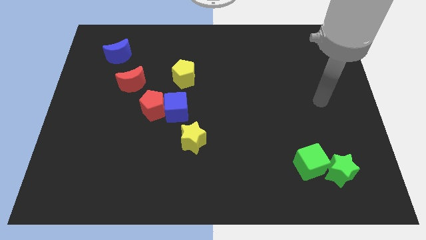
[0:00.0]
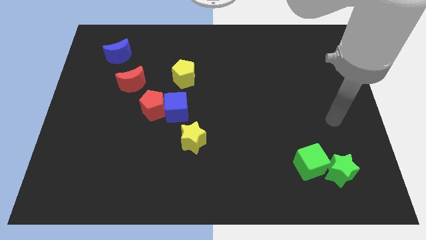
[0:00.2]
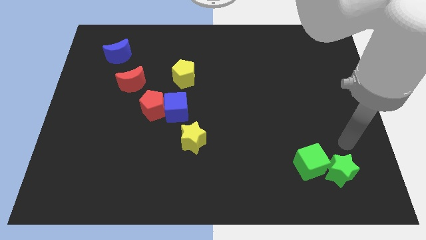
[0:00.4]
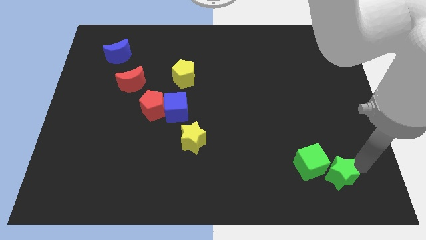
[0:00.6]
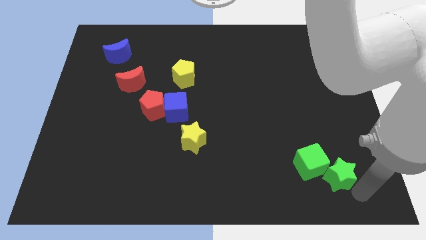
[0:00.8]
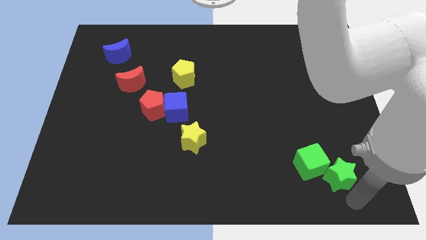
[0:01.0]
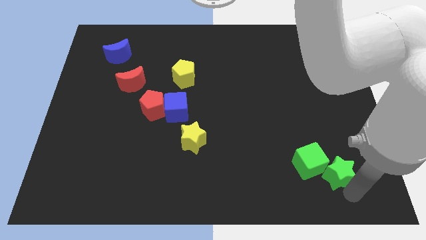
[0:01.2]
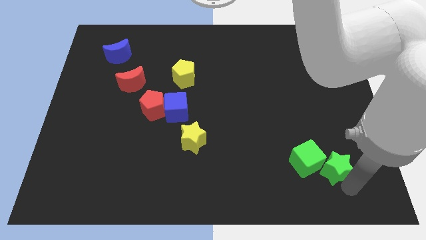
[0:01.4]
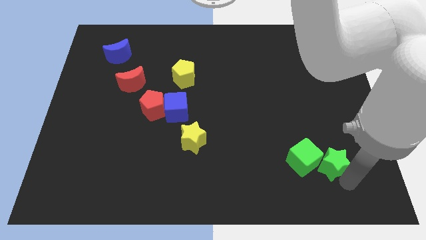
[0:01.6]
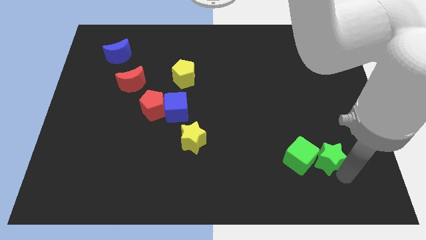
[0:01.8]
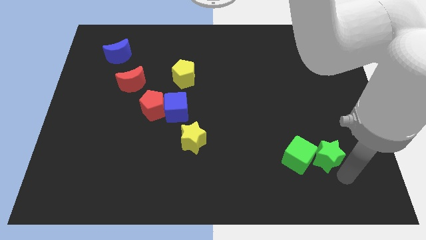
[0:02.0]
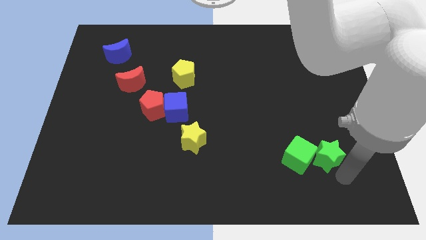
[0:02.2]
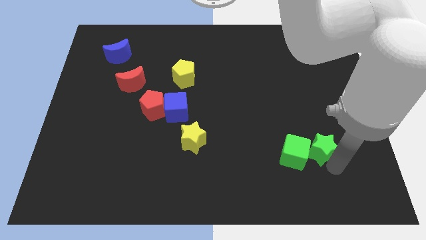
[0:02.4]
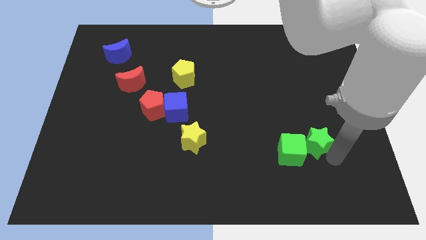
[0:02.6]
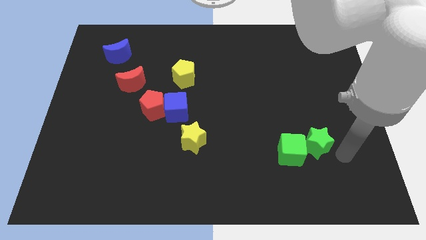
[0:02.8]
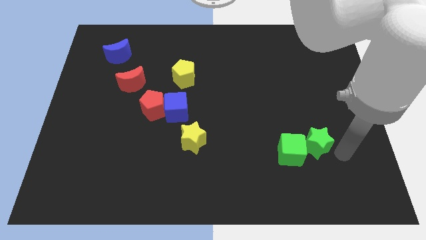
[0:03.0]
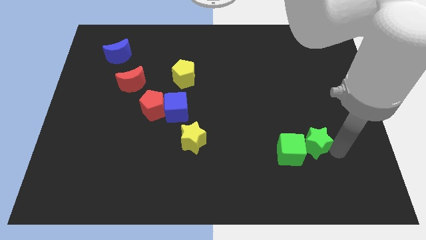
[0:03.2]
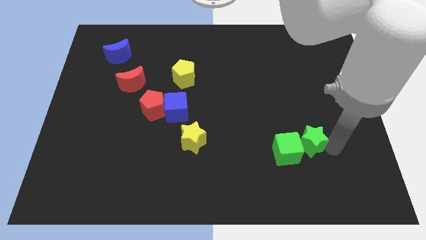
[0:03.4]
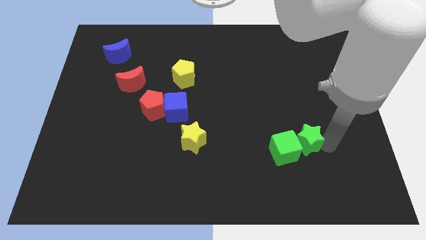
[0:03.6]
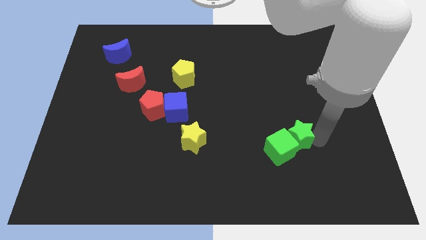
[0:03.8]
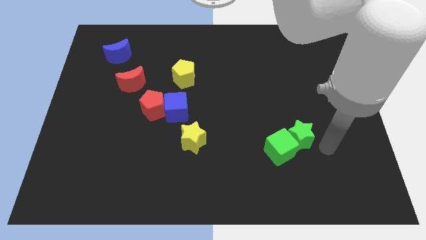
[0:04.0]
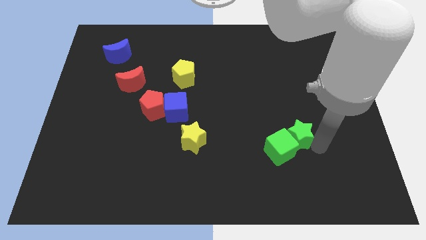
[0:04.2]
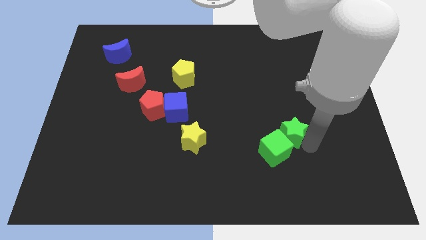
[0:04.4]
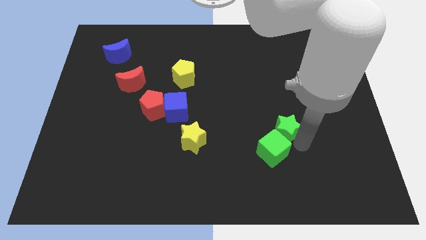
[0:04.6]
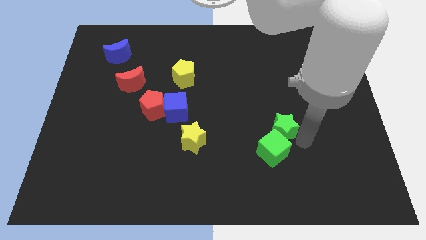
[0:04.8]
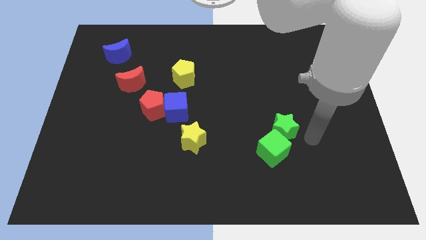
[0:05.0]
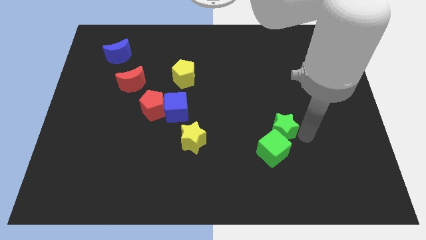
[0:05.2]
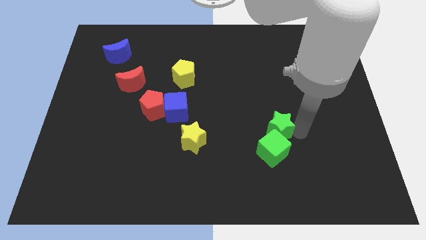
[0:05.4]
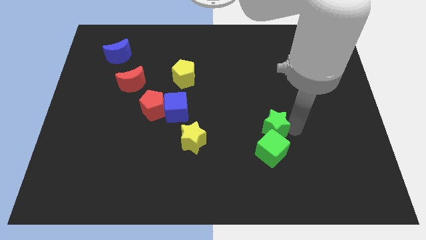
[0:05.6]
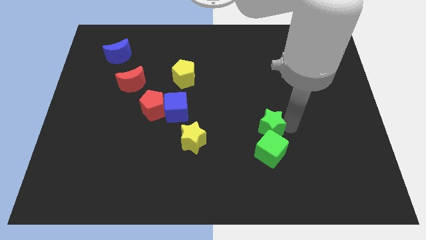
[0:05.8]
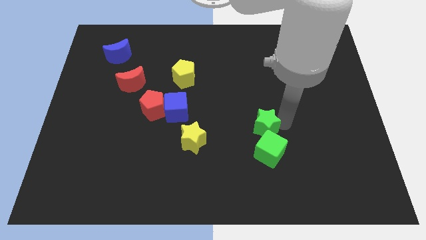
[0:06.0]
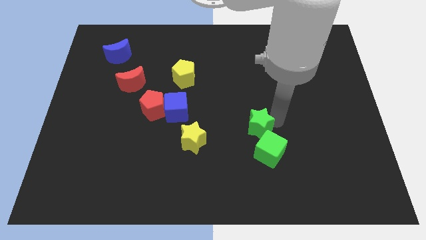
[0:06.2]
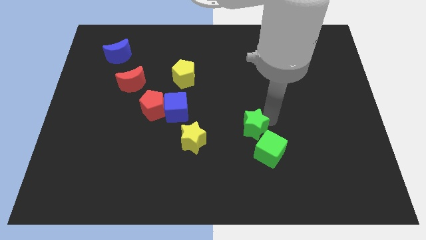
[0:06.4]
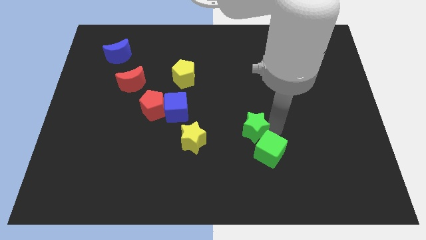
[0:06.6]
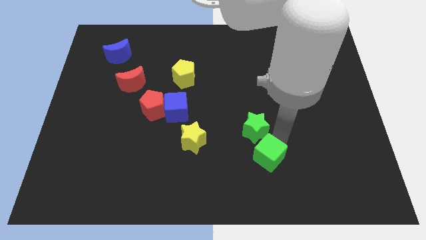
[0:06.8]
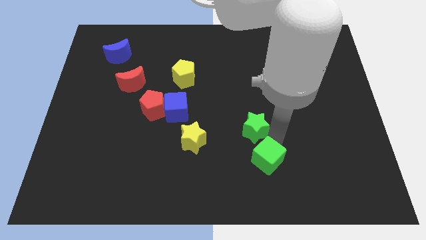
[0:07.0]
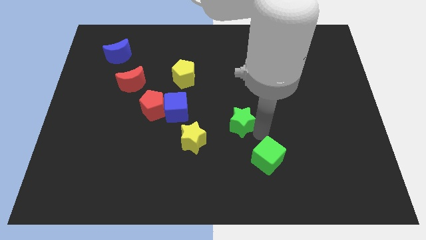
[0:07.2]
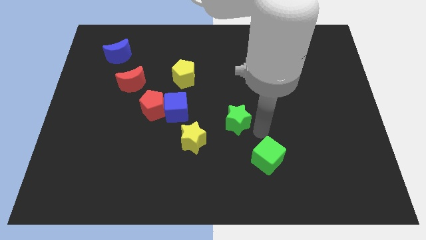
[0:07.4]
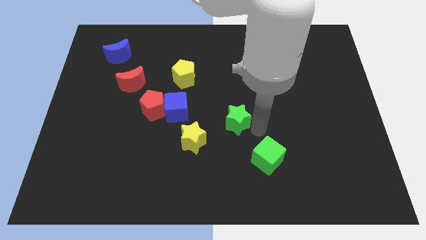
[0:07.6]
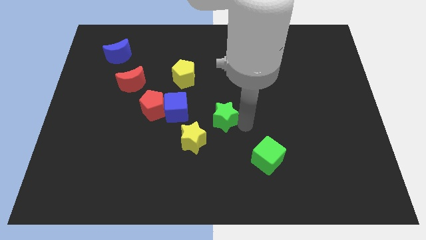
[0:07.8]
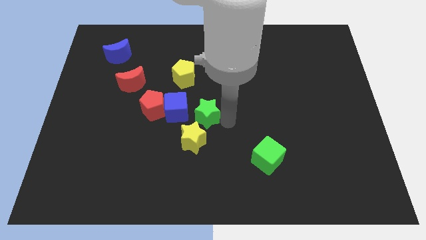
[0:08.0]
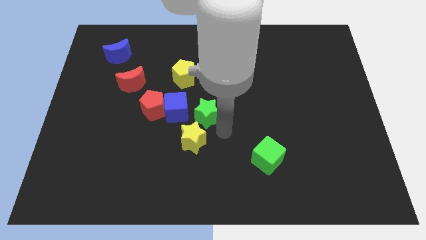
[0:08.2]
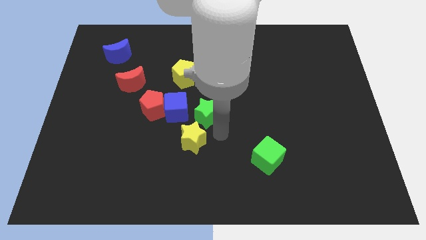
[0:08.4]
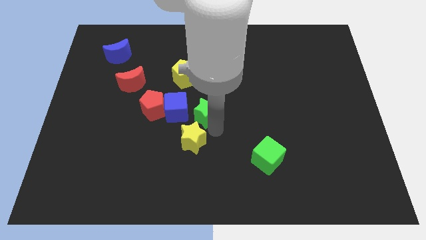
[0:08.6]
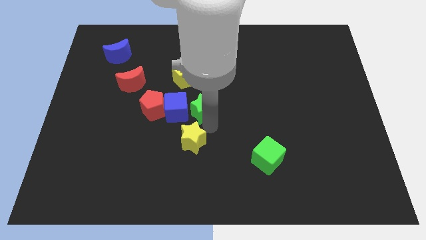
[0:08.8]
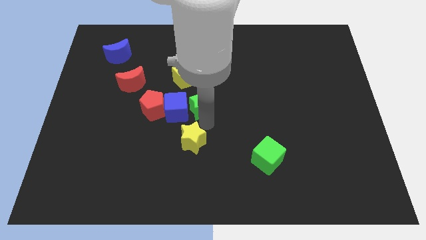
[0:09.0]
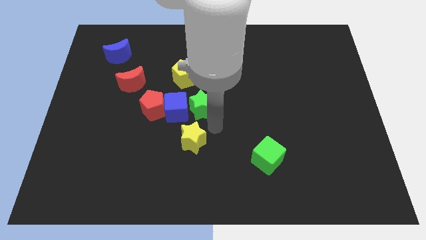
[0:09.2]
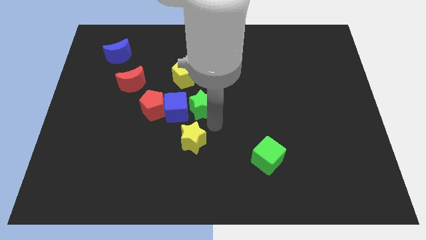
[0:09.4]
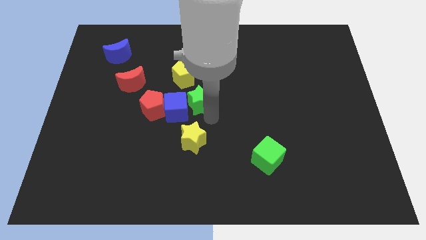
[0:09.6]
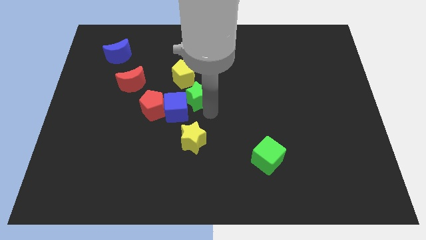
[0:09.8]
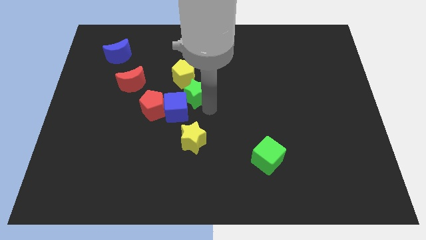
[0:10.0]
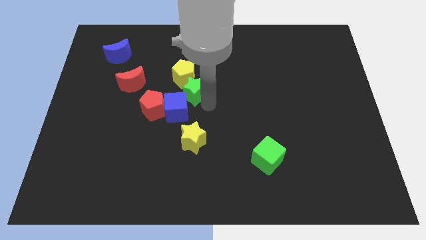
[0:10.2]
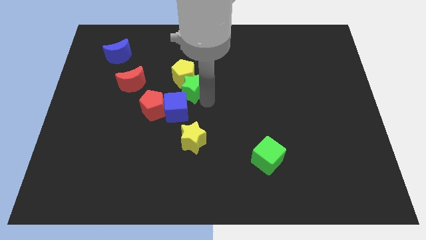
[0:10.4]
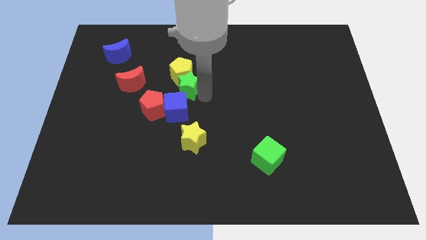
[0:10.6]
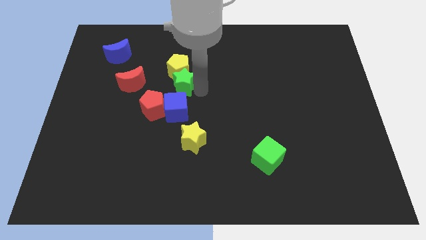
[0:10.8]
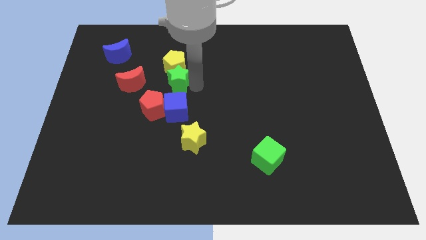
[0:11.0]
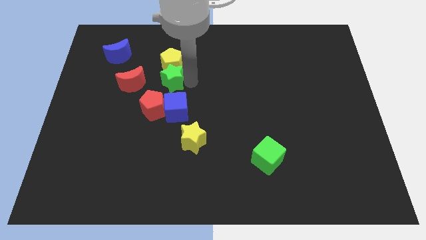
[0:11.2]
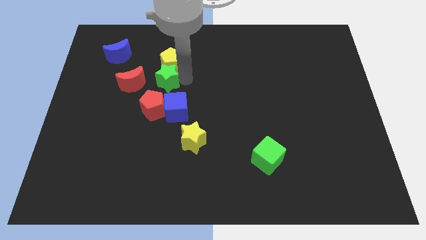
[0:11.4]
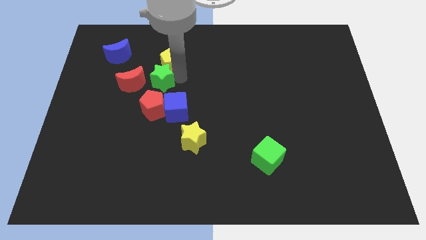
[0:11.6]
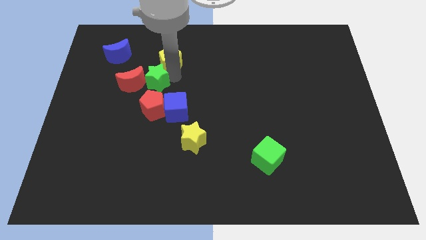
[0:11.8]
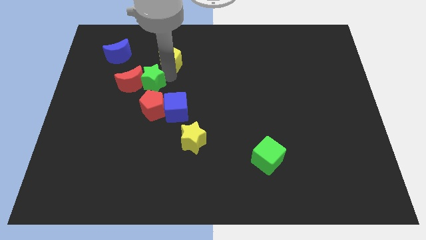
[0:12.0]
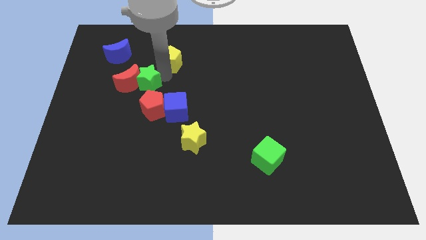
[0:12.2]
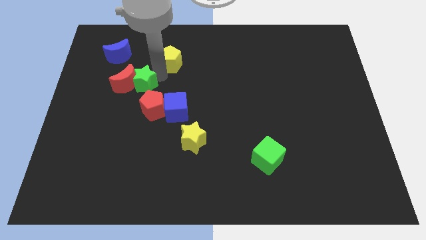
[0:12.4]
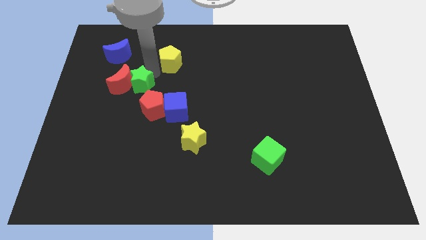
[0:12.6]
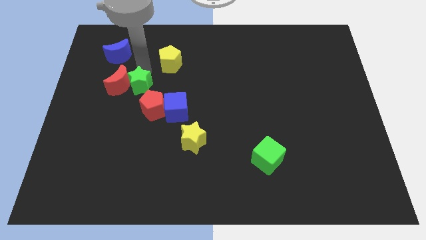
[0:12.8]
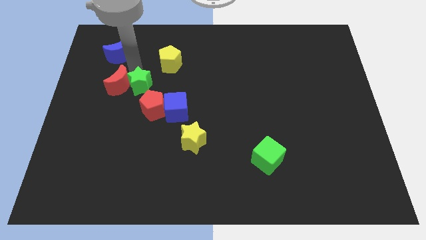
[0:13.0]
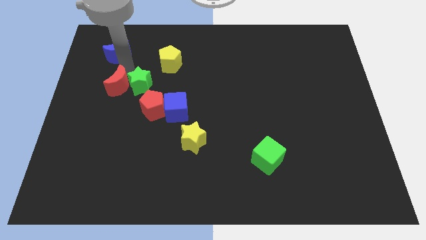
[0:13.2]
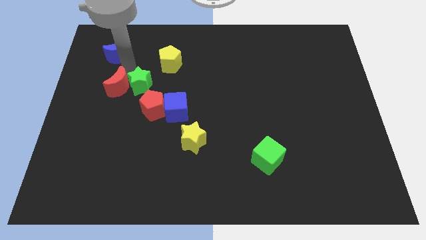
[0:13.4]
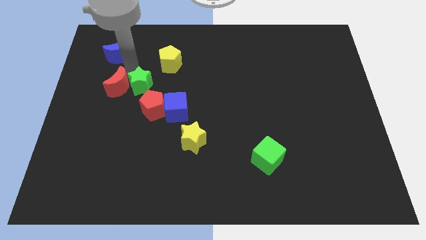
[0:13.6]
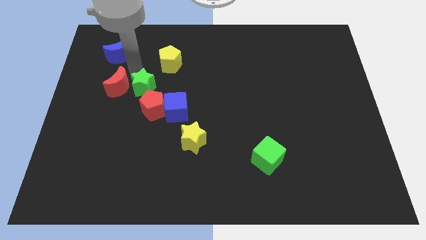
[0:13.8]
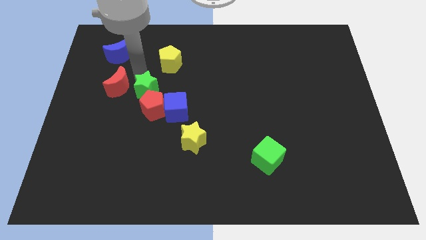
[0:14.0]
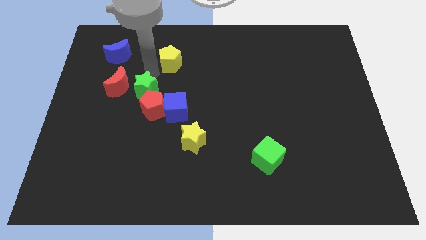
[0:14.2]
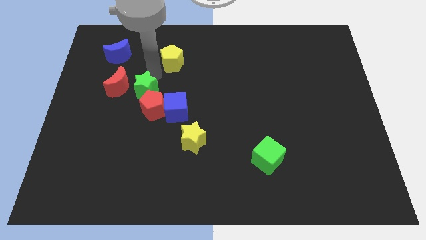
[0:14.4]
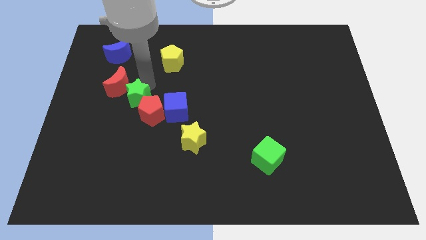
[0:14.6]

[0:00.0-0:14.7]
push the green star to the left of the blue cube
